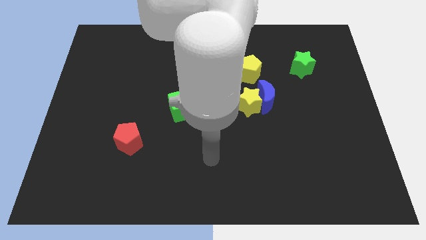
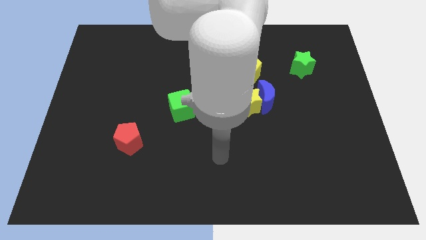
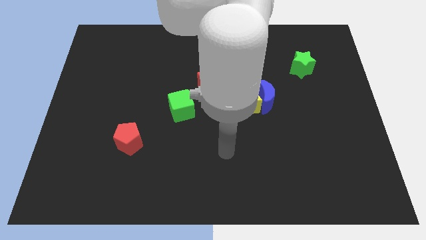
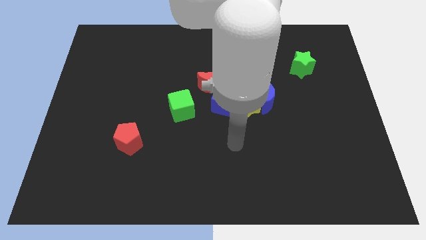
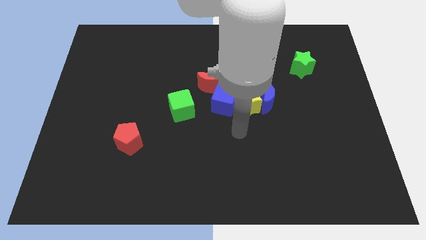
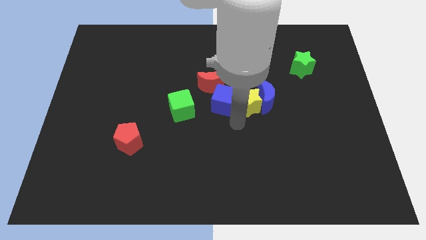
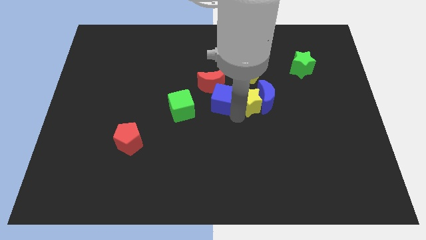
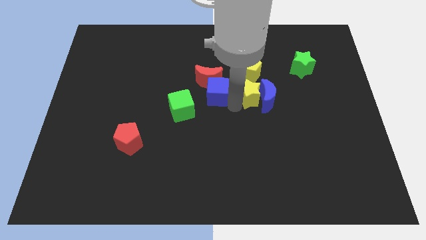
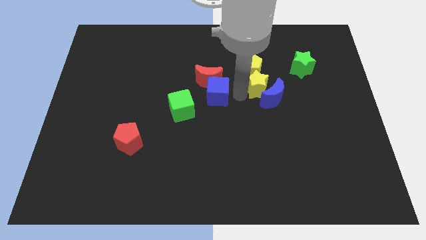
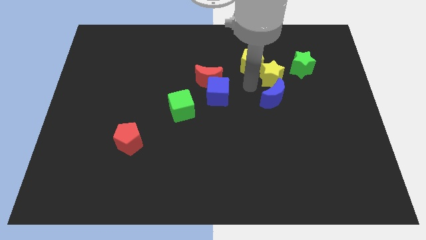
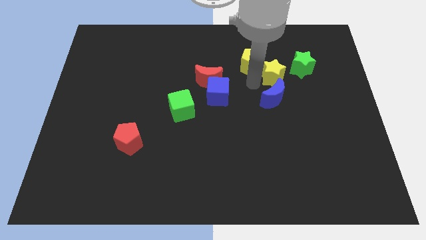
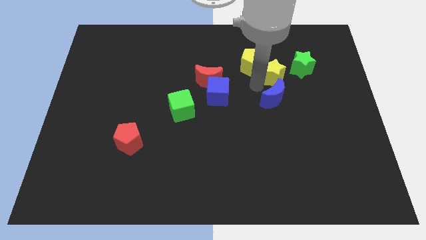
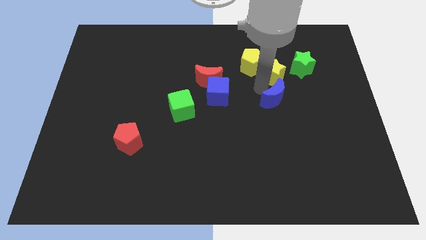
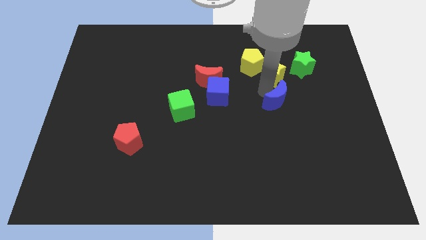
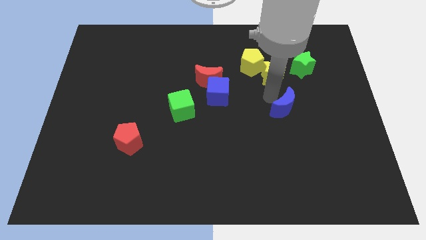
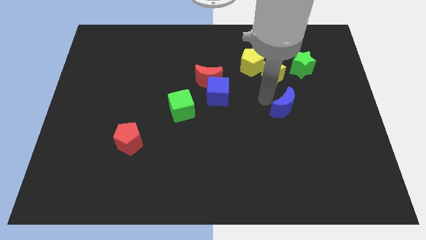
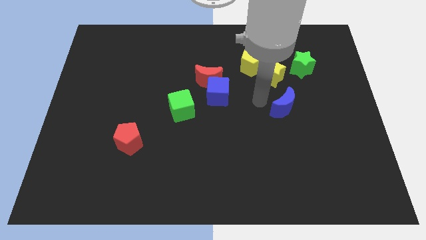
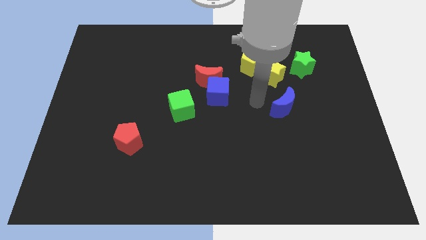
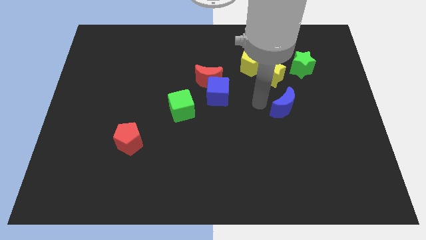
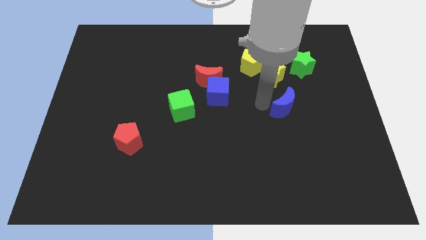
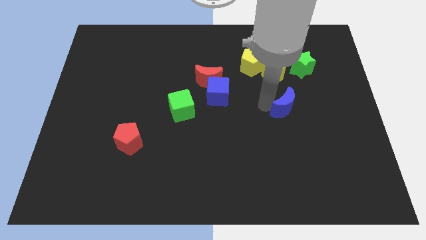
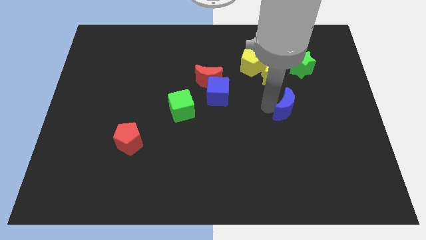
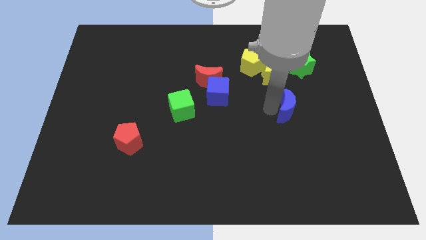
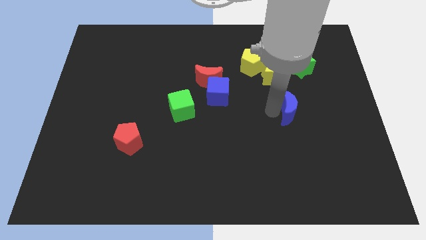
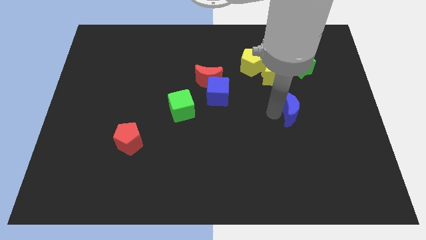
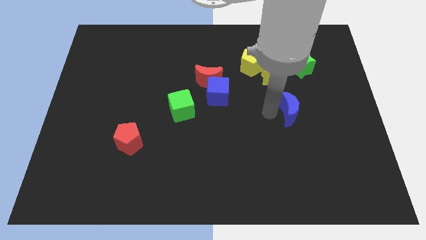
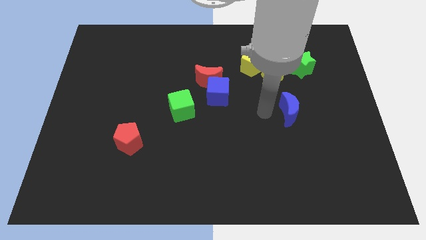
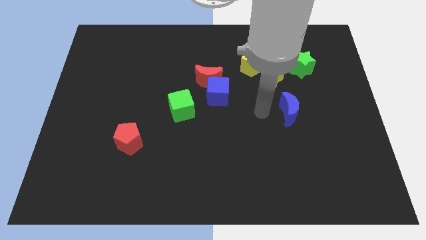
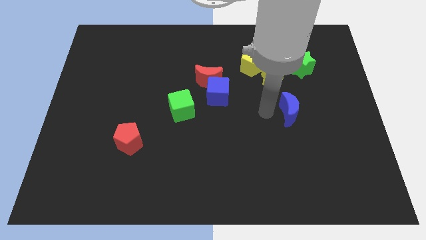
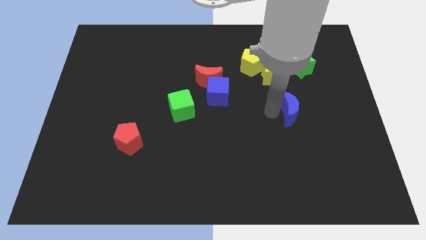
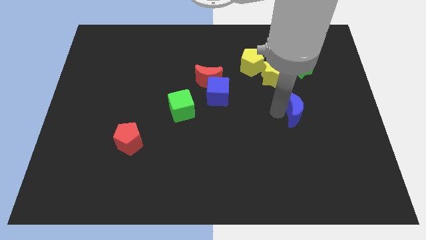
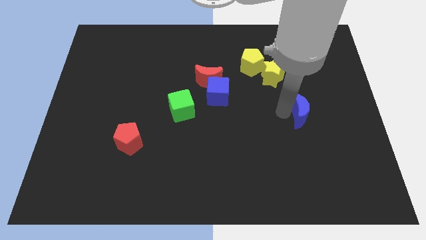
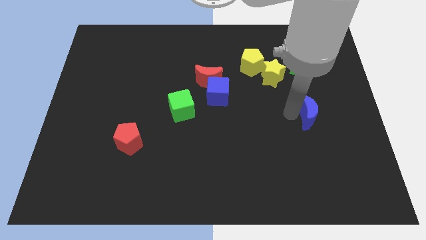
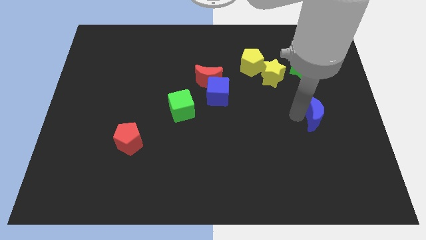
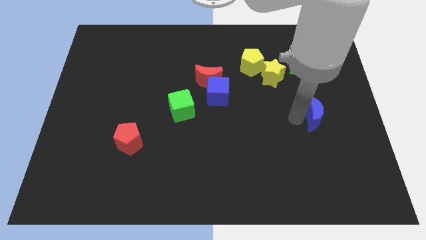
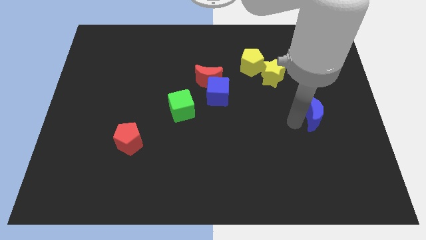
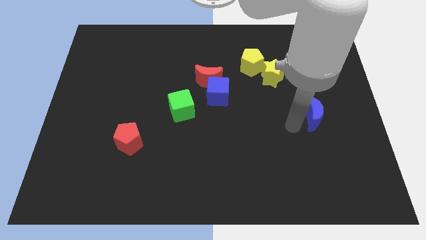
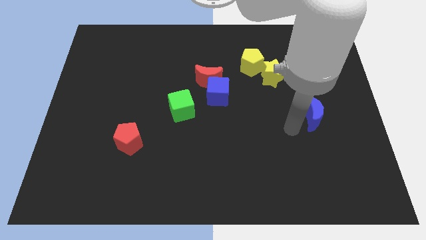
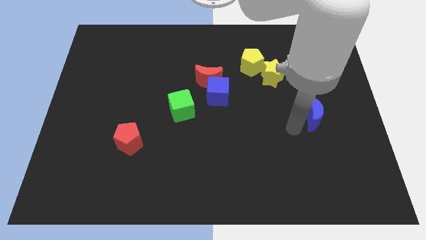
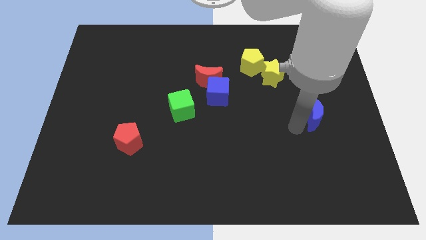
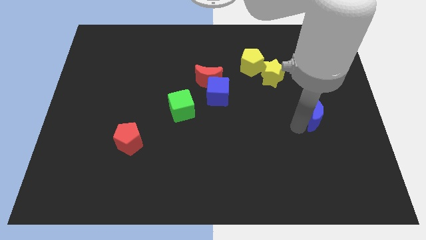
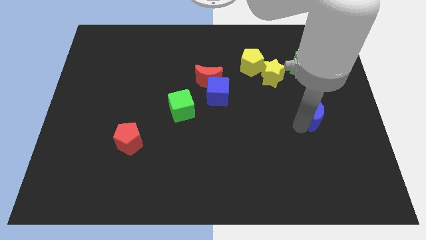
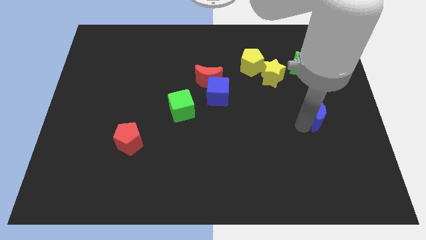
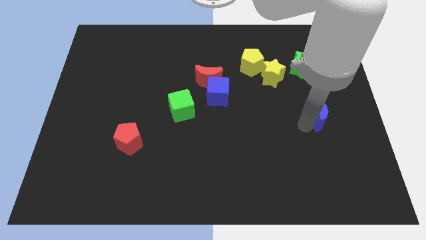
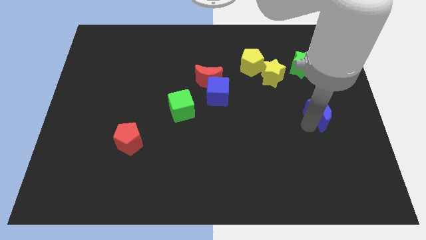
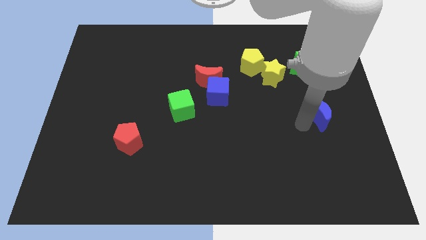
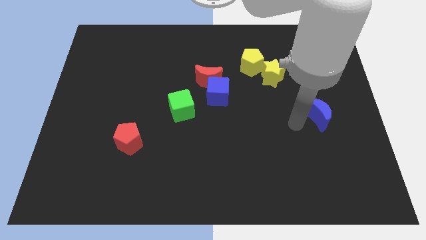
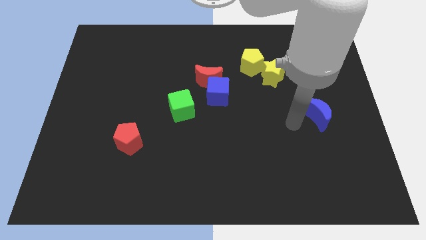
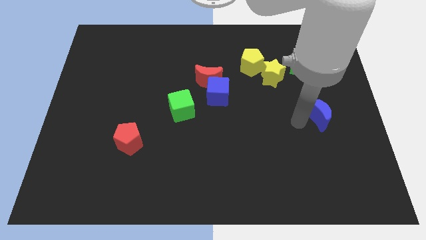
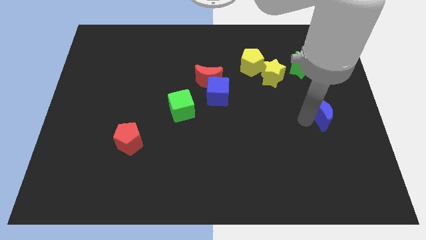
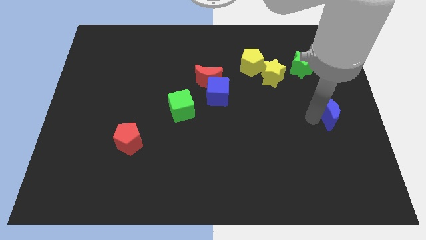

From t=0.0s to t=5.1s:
put the blue moon to the right side of the board

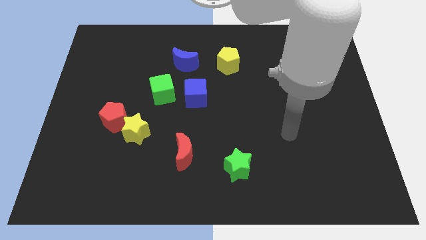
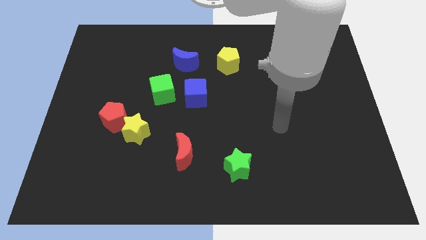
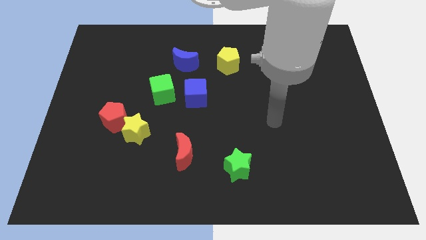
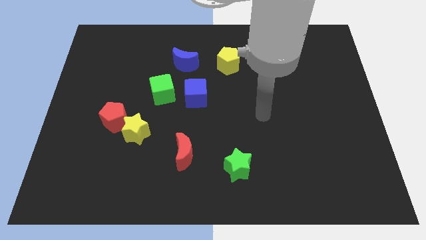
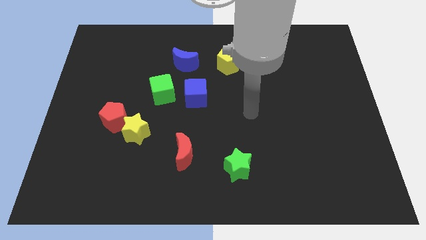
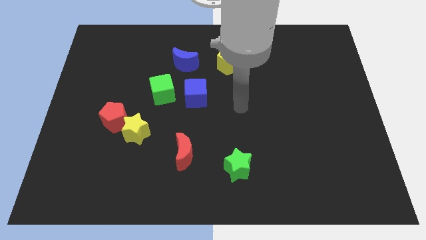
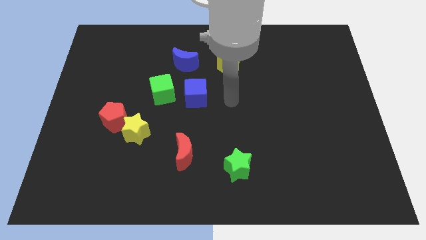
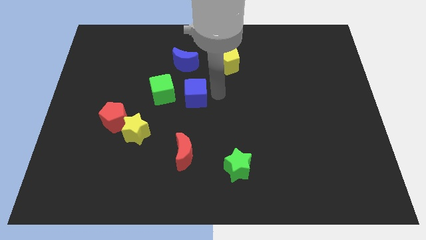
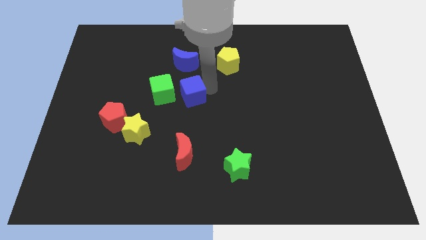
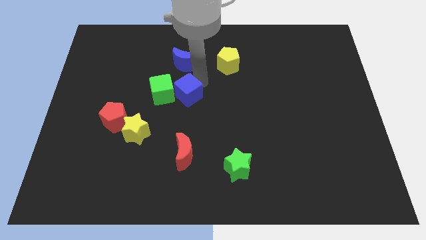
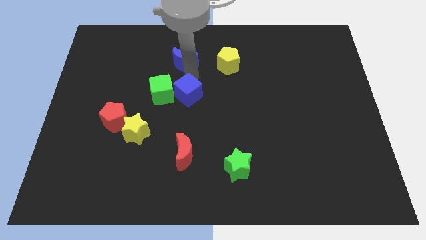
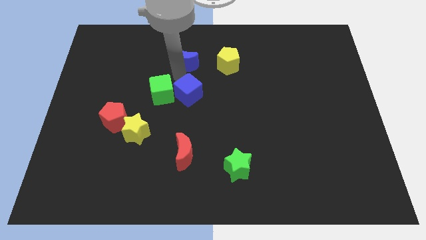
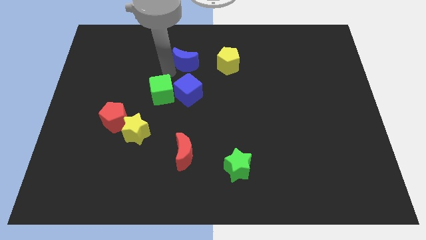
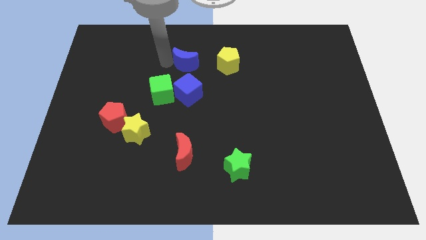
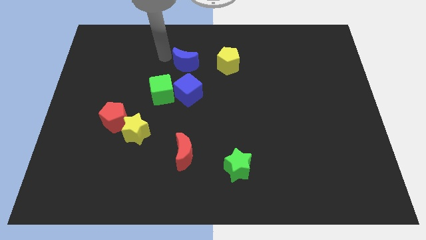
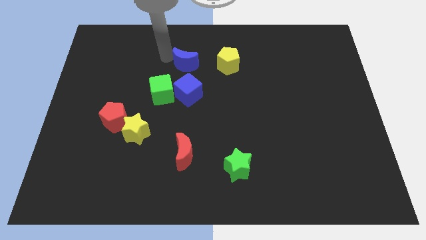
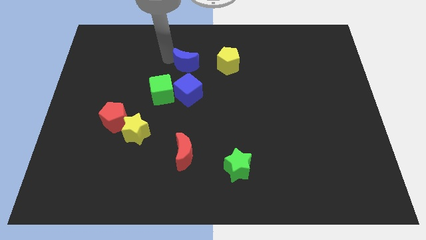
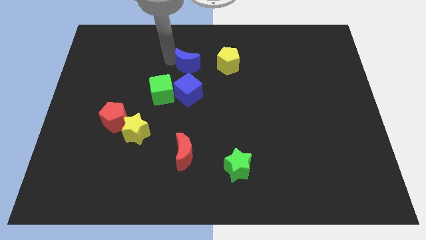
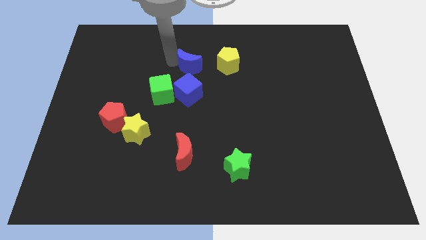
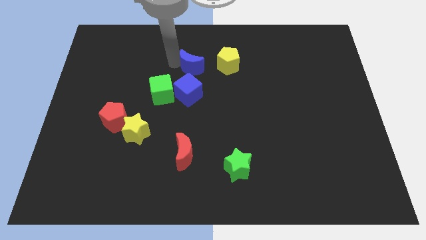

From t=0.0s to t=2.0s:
move the blue moon to the middle of the board
